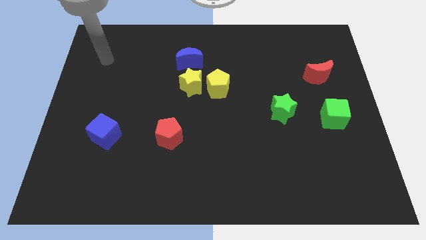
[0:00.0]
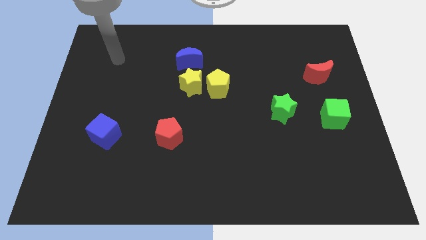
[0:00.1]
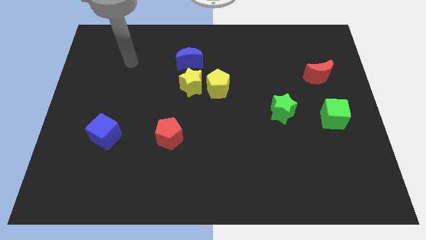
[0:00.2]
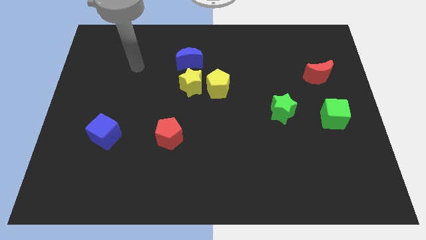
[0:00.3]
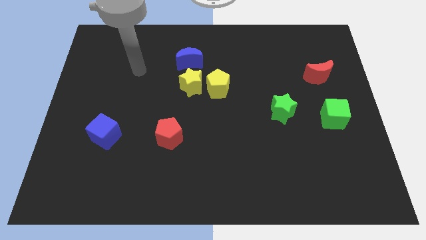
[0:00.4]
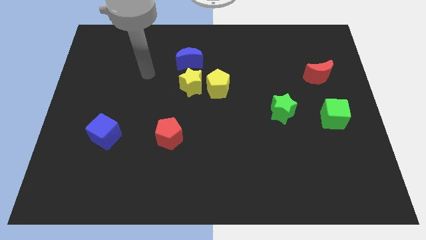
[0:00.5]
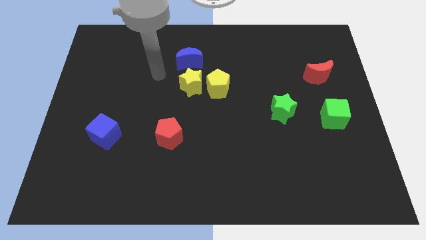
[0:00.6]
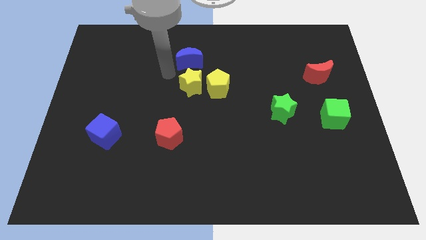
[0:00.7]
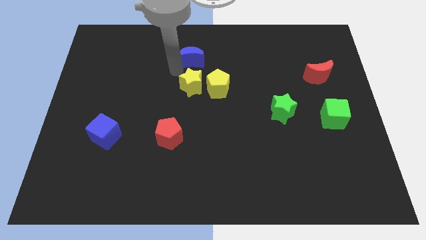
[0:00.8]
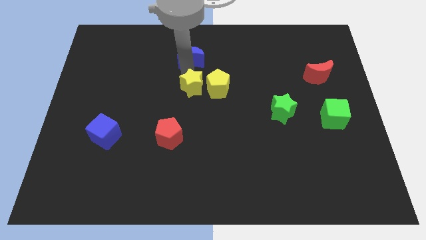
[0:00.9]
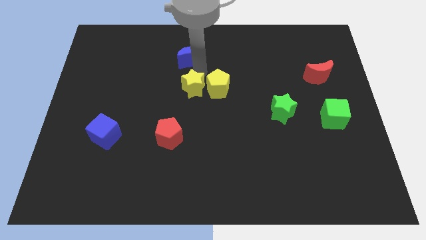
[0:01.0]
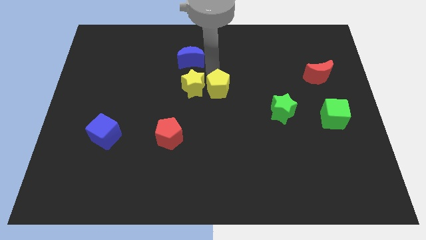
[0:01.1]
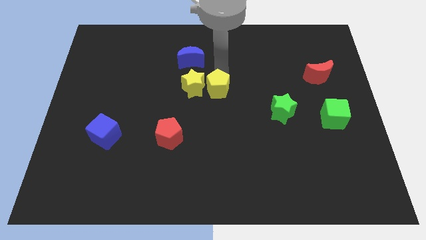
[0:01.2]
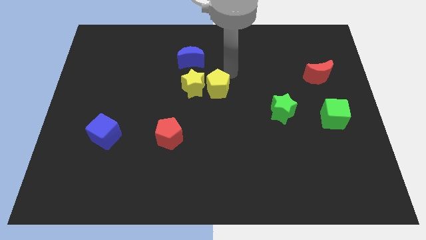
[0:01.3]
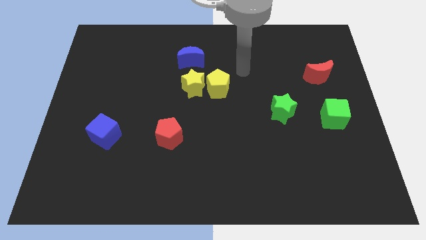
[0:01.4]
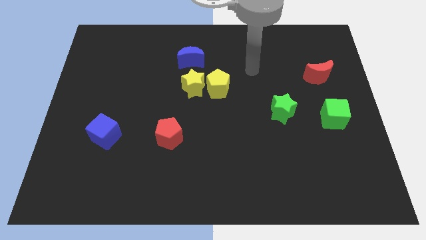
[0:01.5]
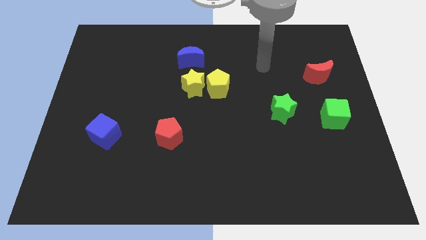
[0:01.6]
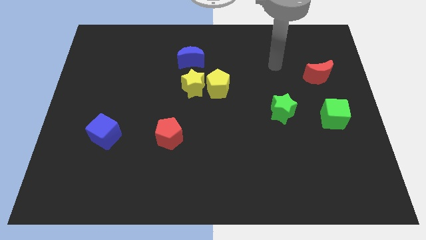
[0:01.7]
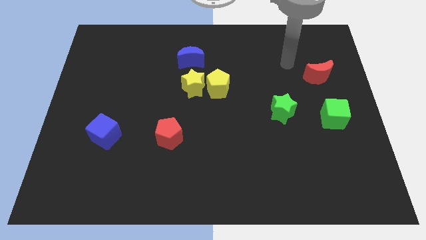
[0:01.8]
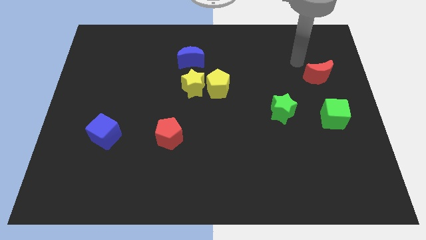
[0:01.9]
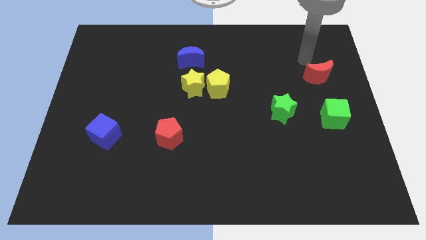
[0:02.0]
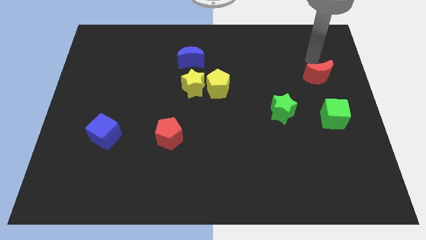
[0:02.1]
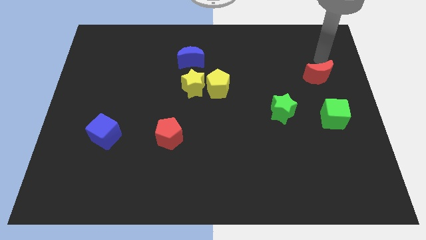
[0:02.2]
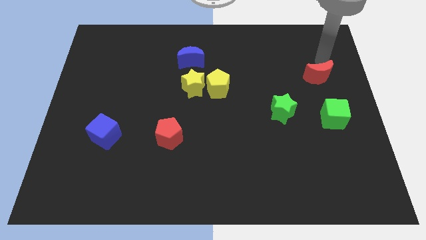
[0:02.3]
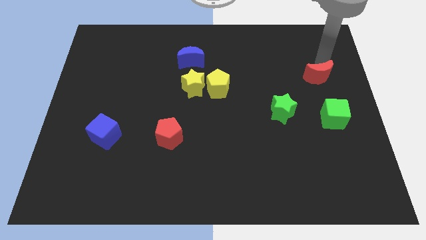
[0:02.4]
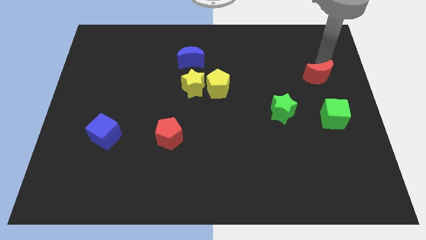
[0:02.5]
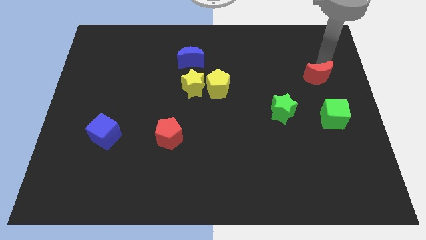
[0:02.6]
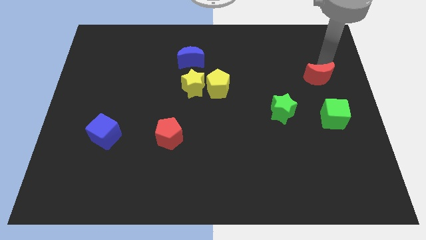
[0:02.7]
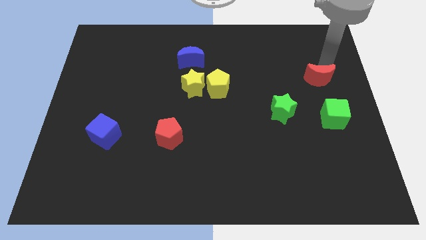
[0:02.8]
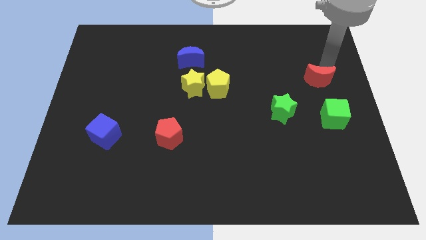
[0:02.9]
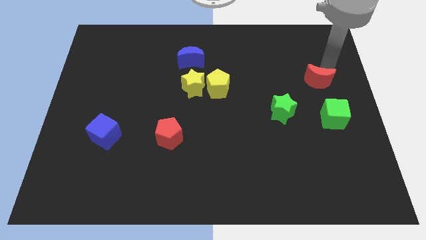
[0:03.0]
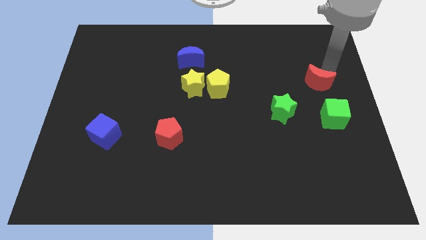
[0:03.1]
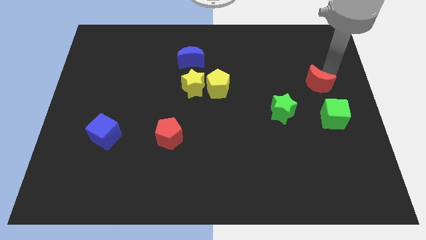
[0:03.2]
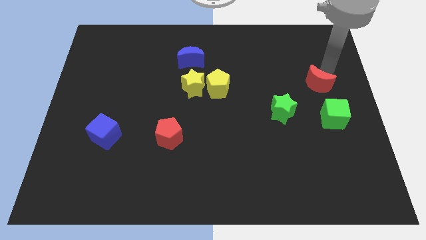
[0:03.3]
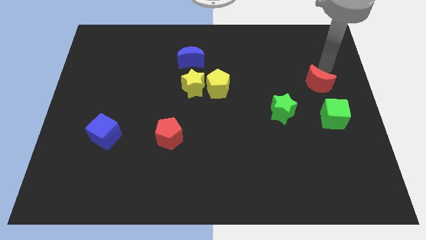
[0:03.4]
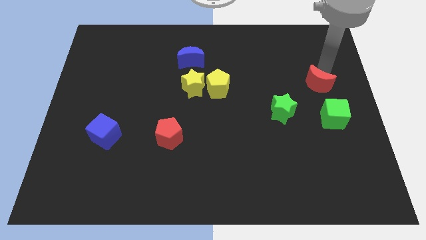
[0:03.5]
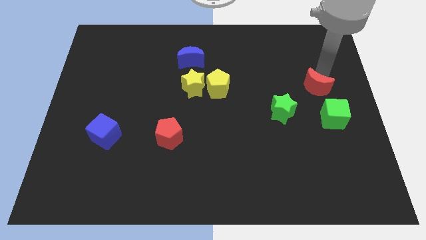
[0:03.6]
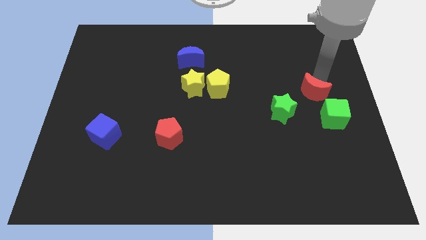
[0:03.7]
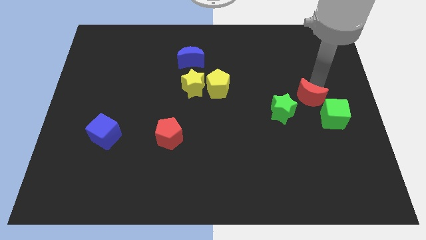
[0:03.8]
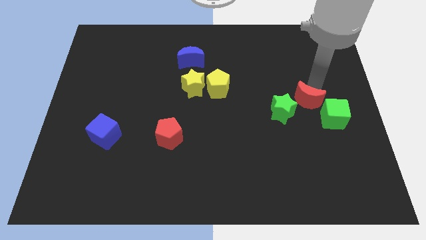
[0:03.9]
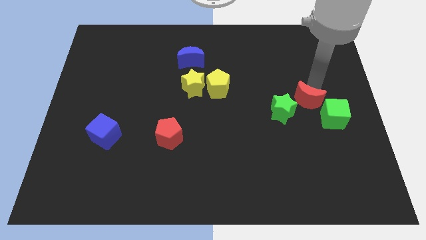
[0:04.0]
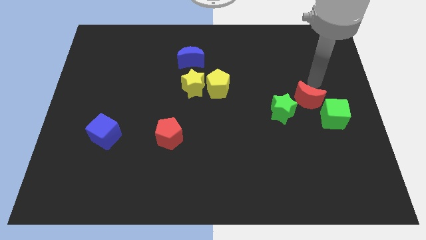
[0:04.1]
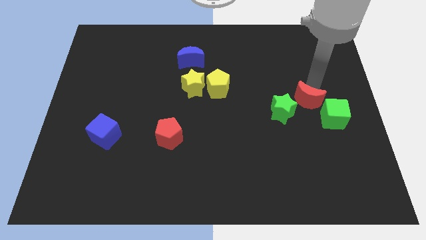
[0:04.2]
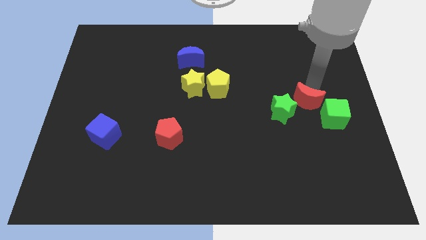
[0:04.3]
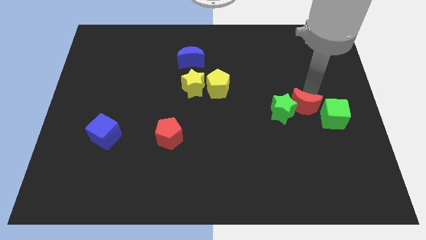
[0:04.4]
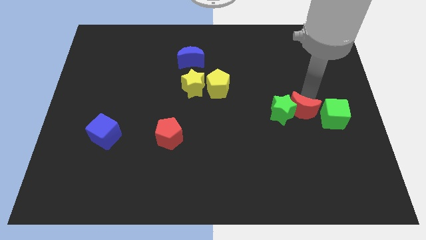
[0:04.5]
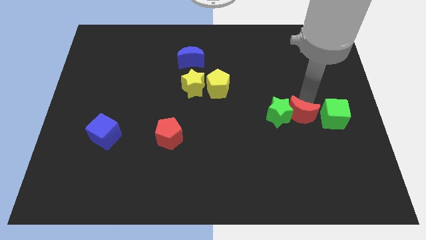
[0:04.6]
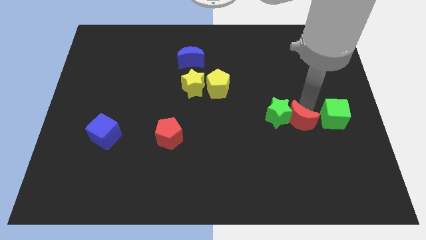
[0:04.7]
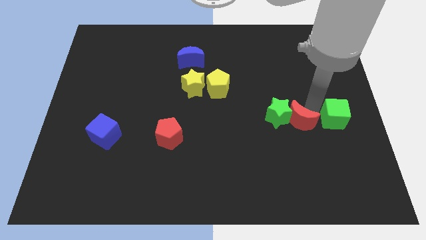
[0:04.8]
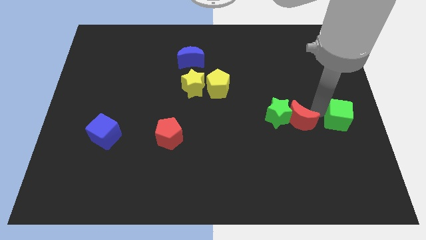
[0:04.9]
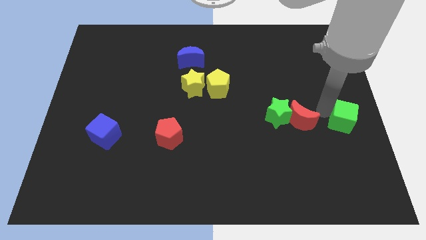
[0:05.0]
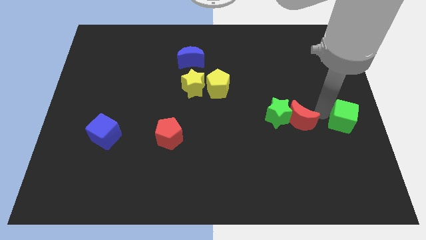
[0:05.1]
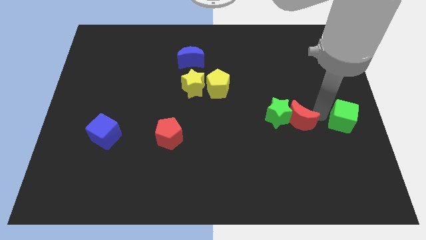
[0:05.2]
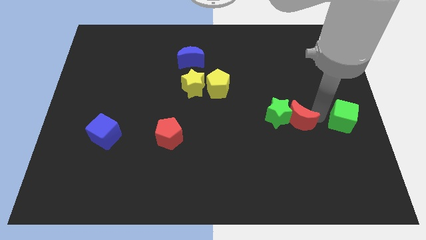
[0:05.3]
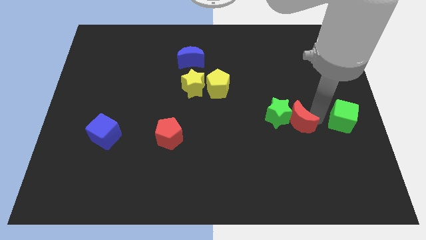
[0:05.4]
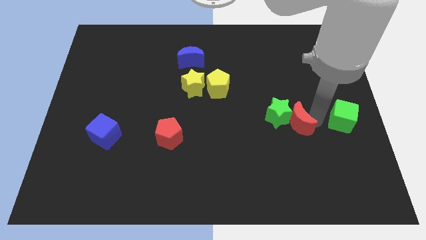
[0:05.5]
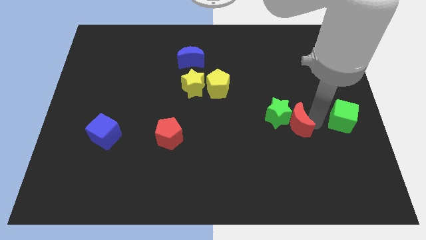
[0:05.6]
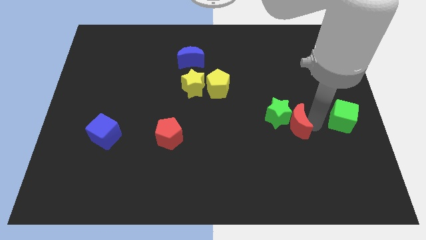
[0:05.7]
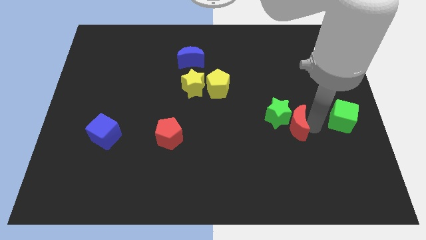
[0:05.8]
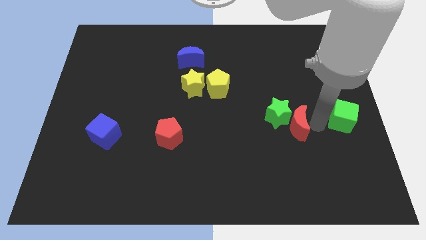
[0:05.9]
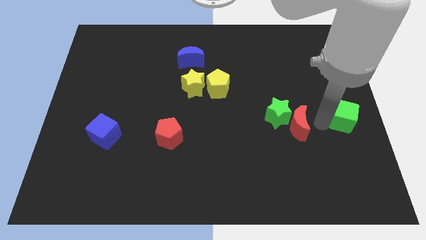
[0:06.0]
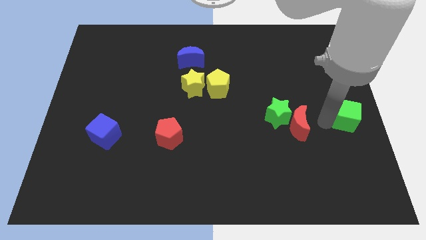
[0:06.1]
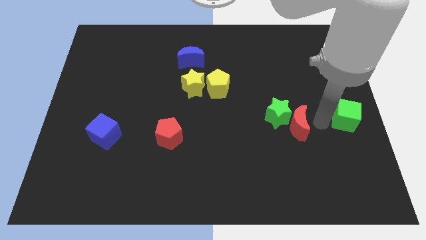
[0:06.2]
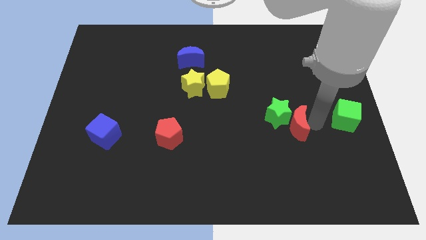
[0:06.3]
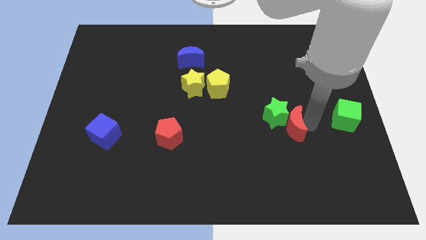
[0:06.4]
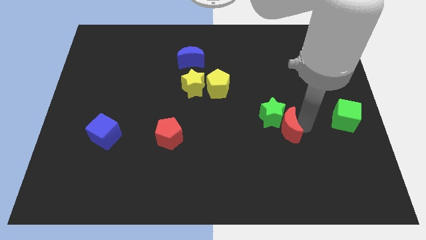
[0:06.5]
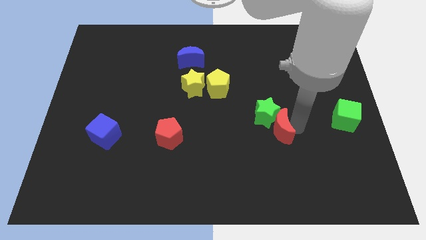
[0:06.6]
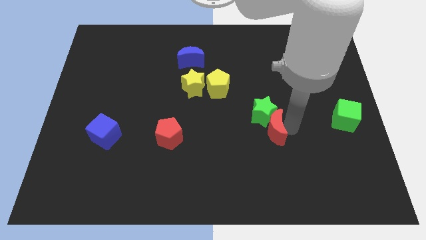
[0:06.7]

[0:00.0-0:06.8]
move the red moon down and left diagonally

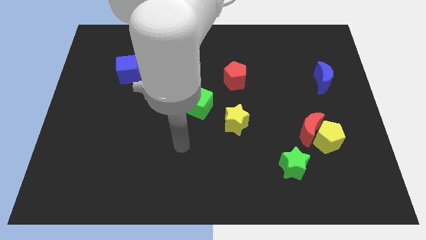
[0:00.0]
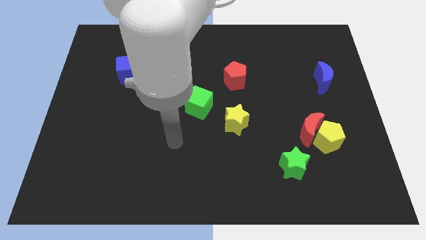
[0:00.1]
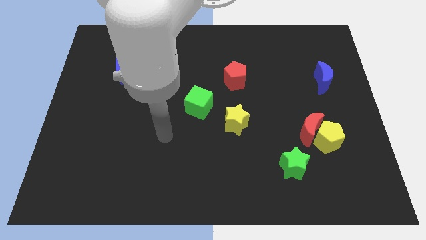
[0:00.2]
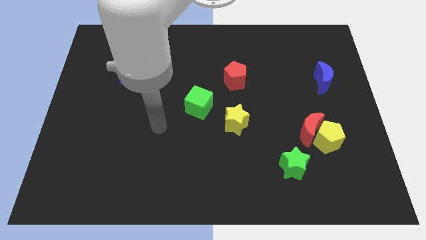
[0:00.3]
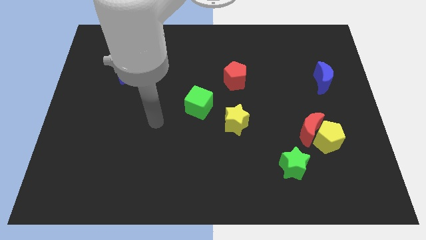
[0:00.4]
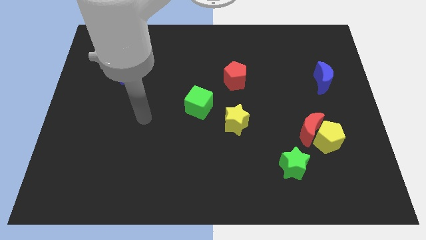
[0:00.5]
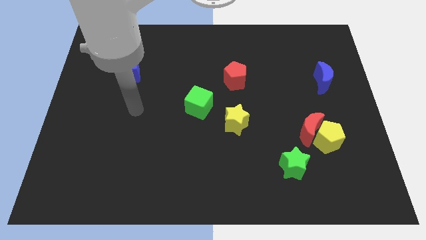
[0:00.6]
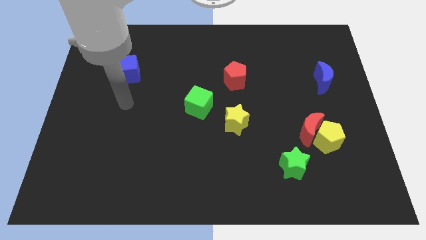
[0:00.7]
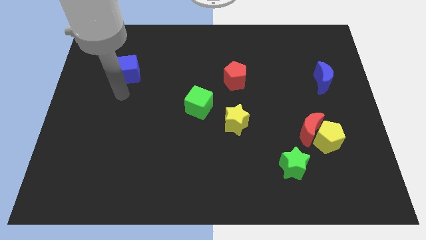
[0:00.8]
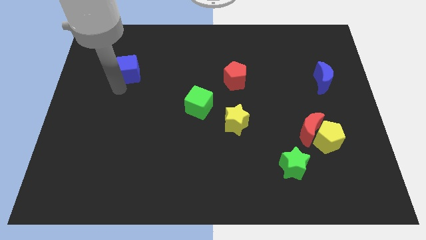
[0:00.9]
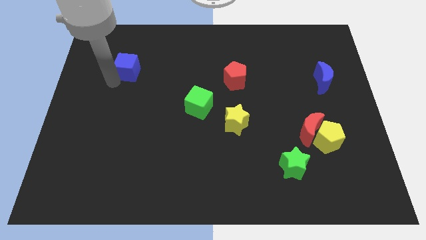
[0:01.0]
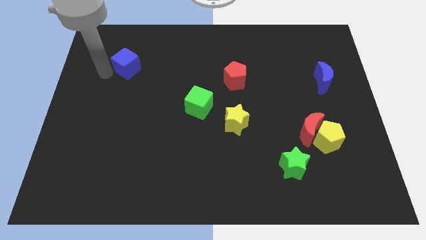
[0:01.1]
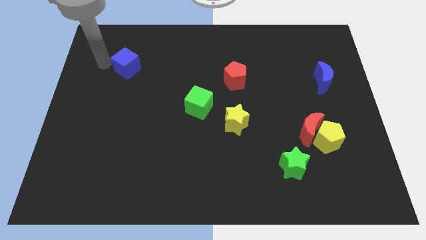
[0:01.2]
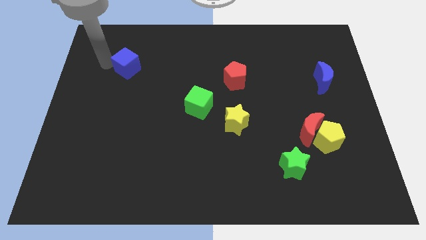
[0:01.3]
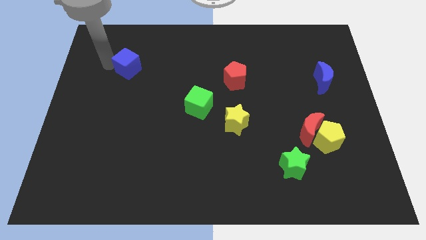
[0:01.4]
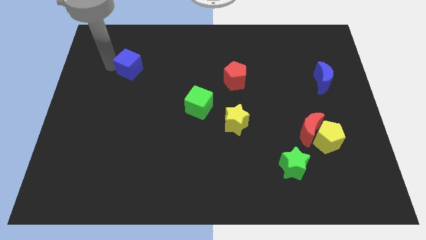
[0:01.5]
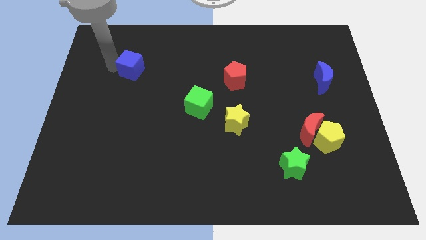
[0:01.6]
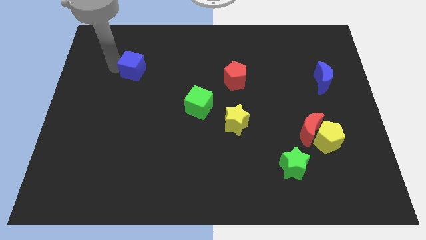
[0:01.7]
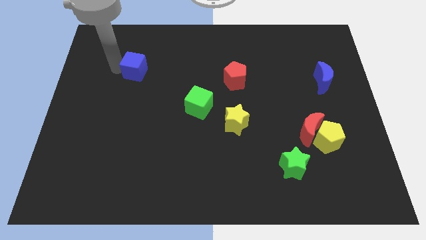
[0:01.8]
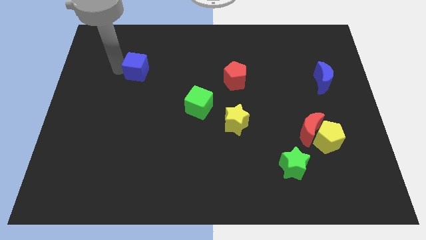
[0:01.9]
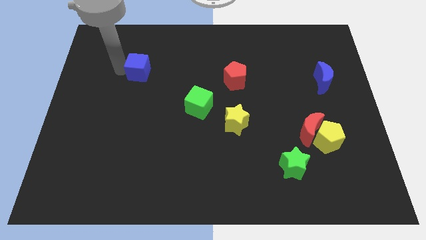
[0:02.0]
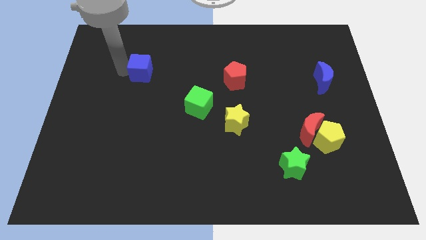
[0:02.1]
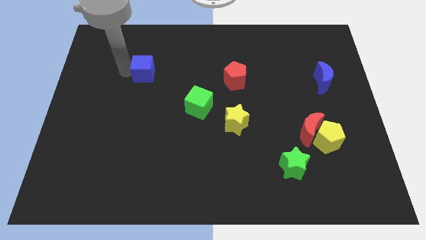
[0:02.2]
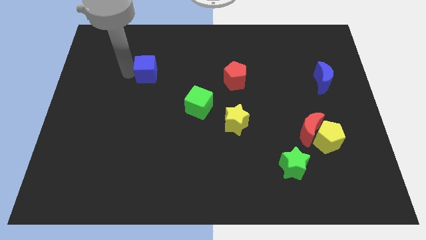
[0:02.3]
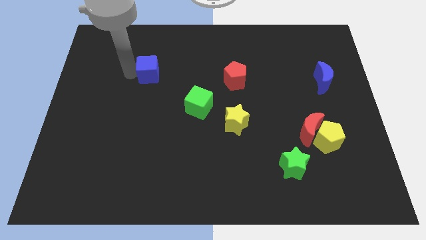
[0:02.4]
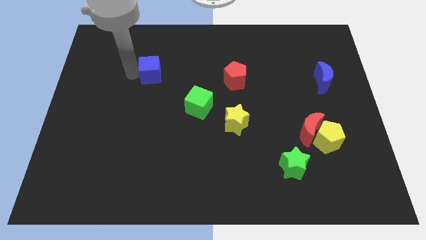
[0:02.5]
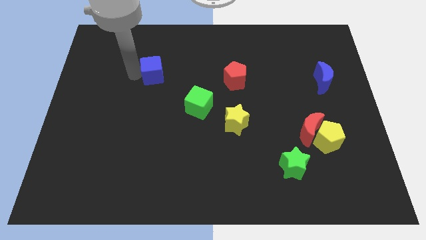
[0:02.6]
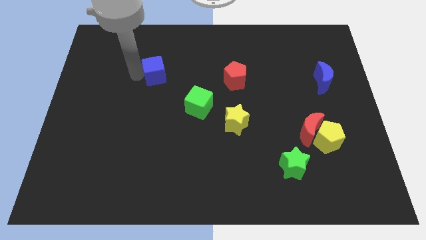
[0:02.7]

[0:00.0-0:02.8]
slightly slide the blue cube right
